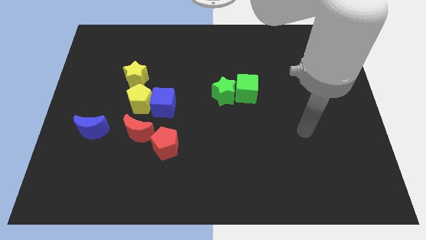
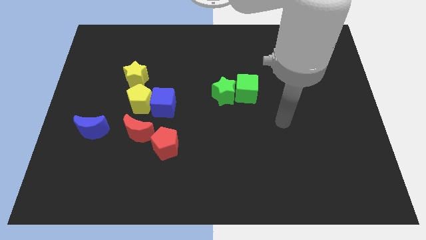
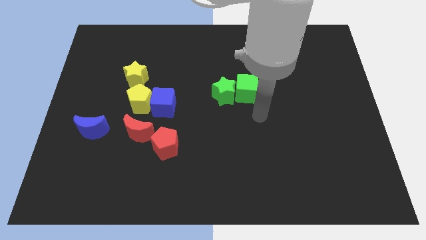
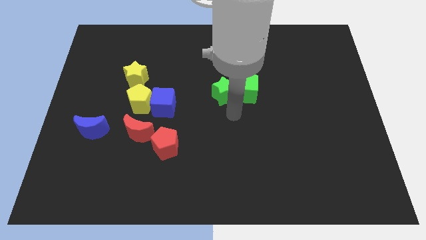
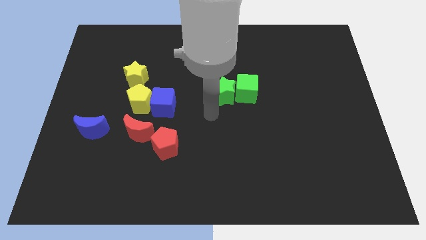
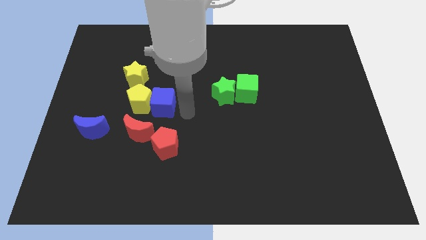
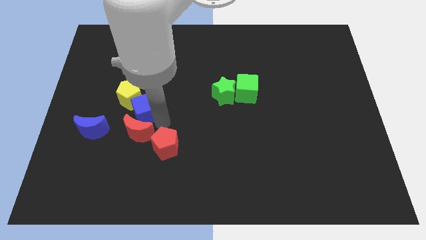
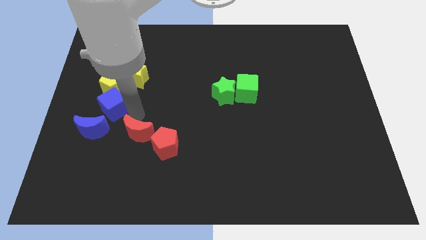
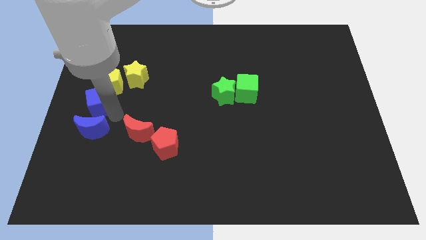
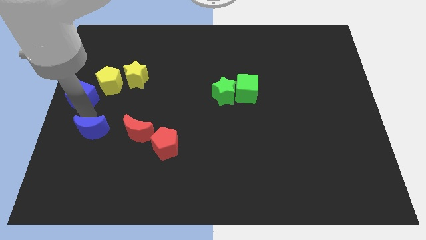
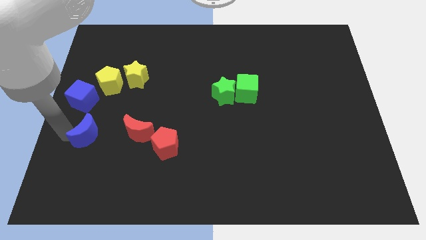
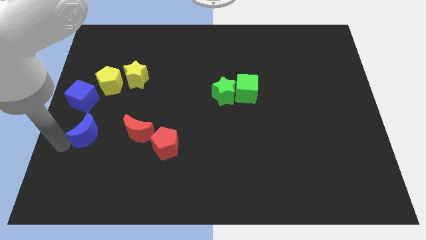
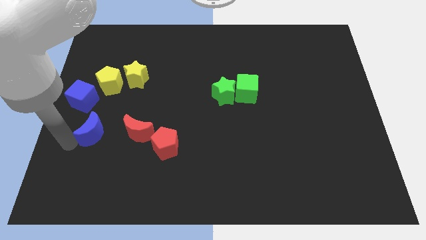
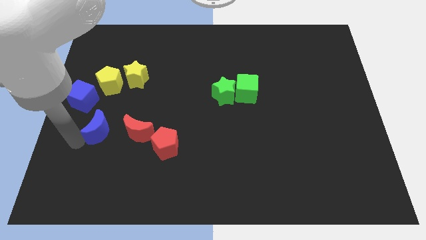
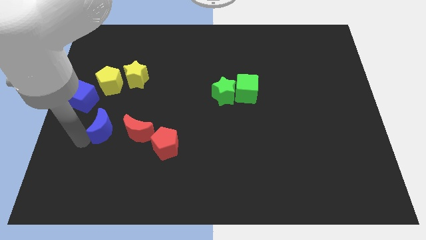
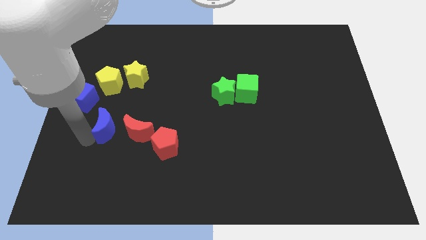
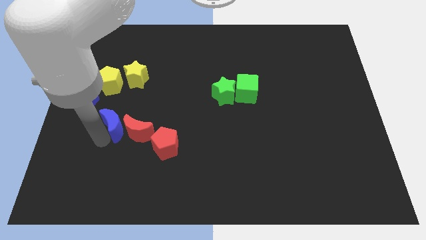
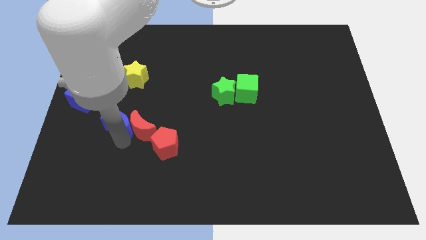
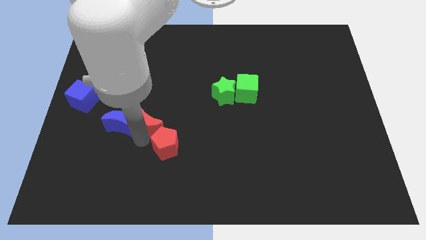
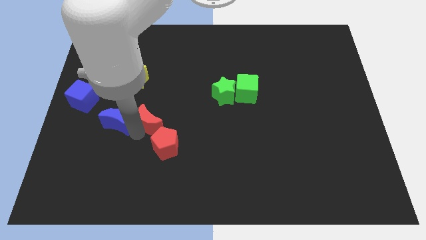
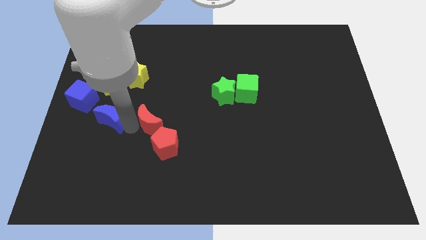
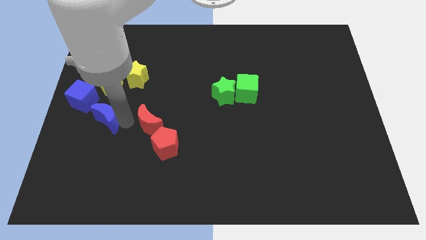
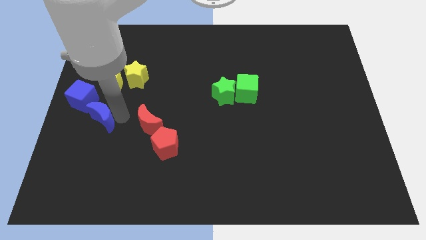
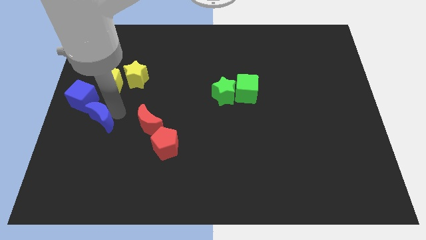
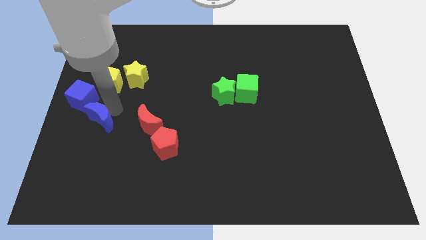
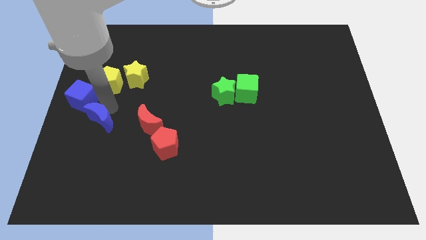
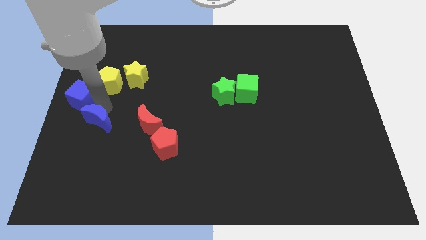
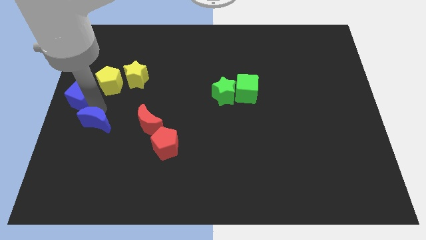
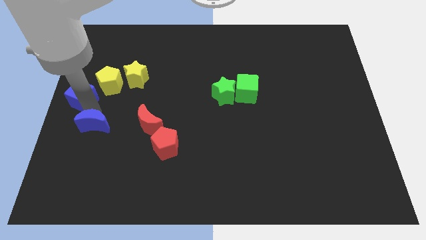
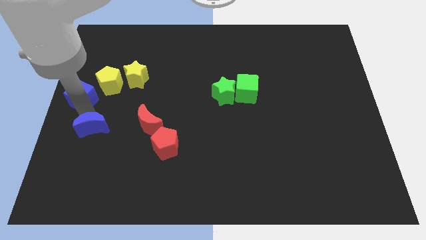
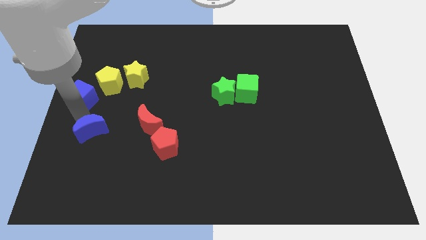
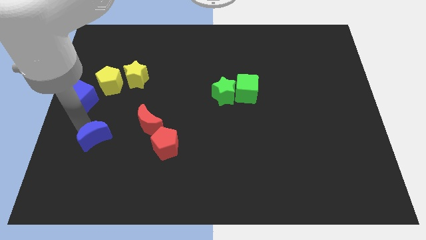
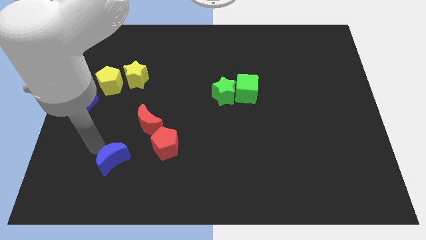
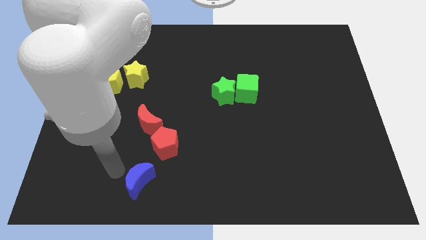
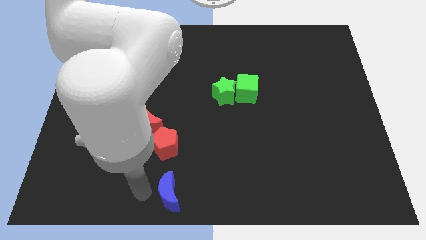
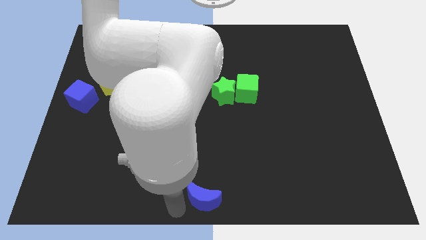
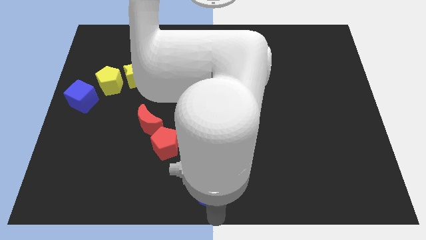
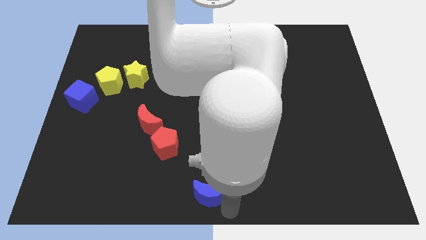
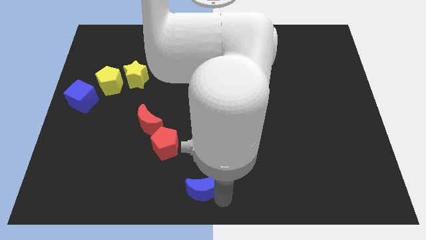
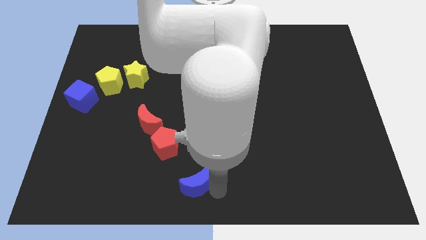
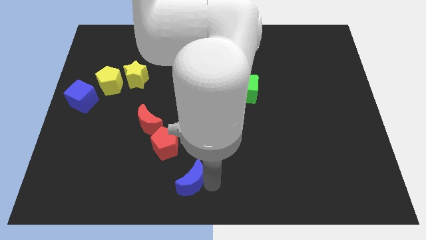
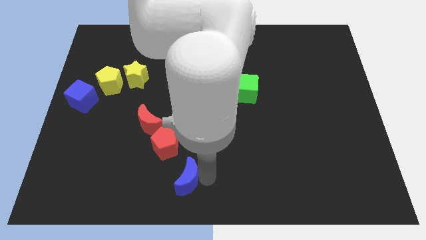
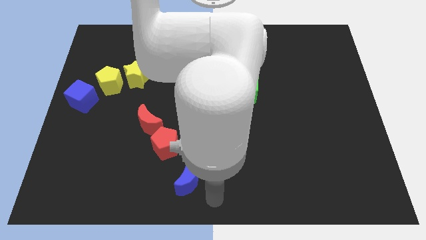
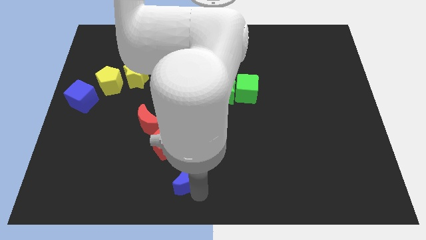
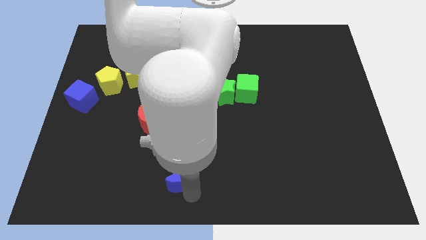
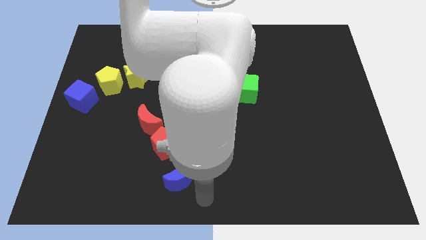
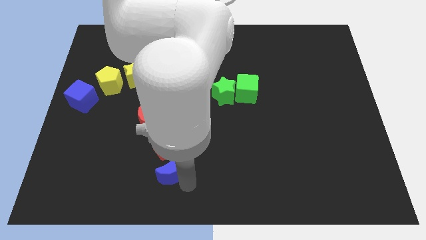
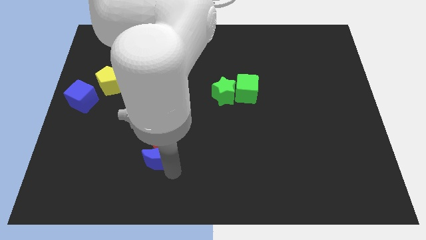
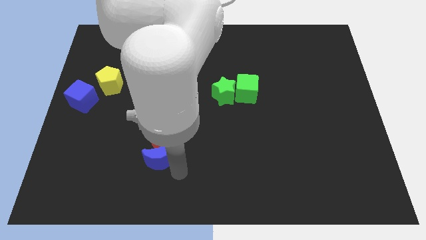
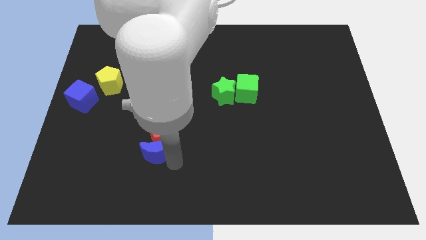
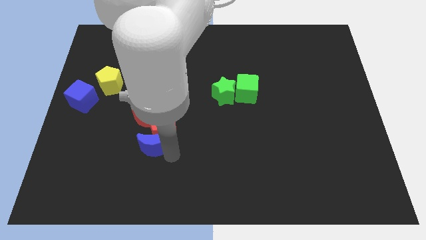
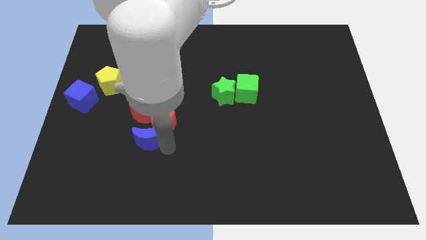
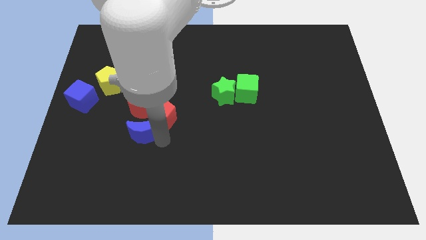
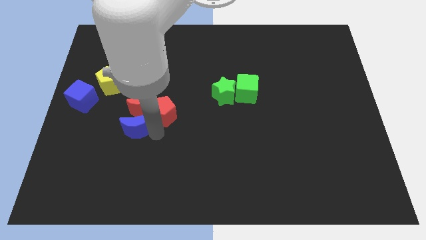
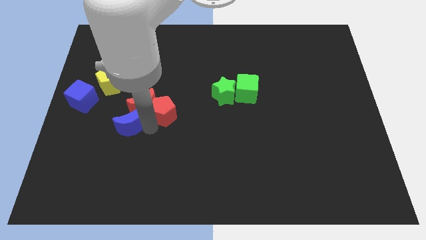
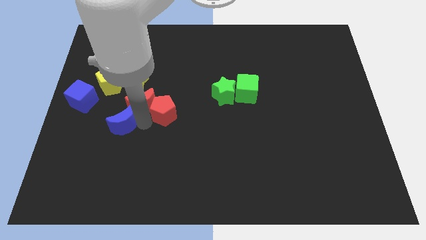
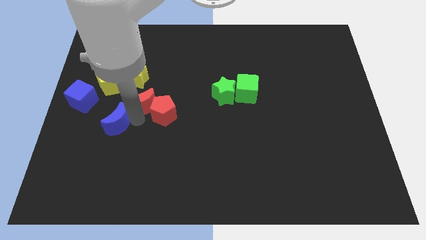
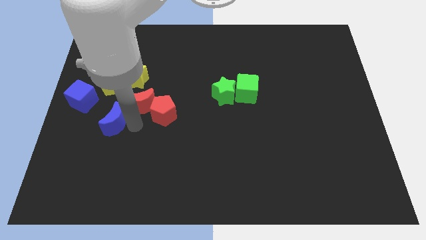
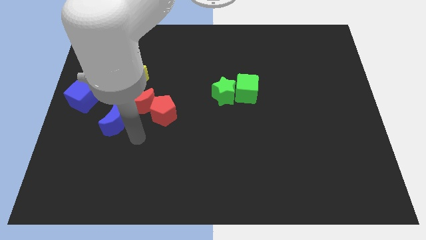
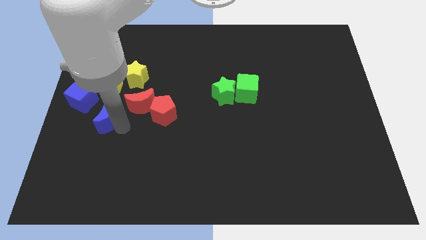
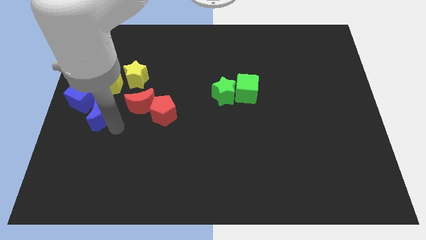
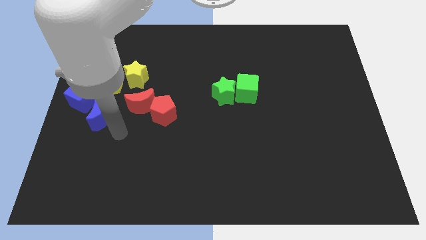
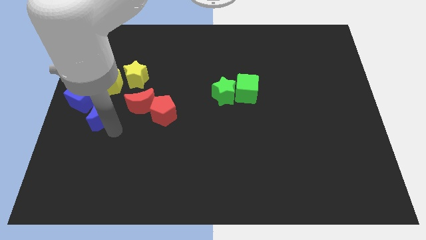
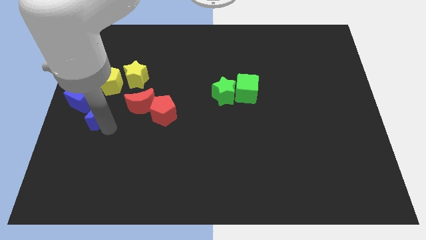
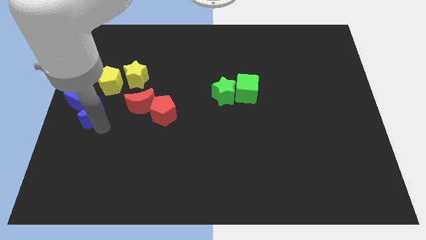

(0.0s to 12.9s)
slide the blue moon towards the blue cube

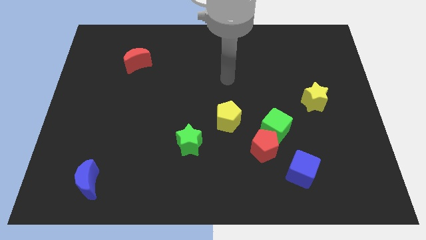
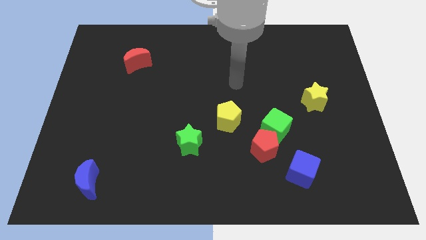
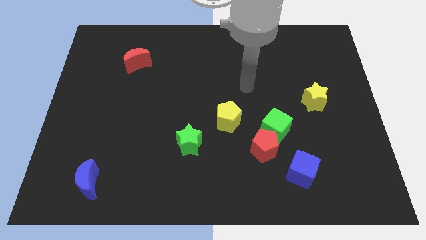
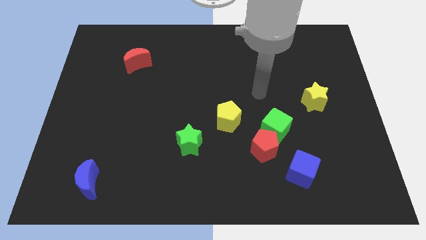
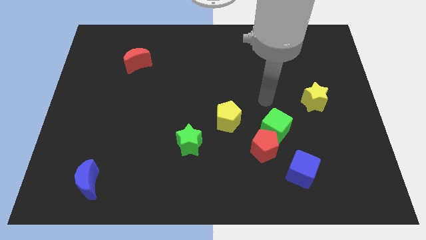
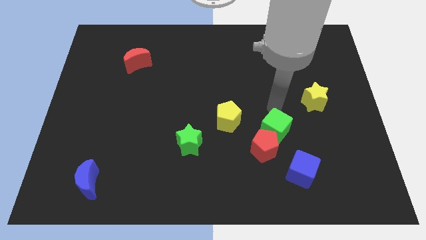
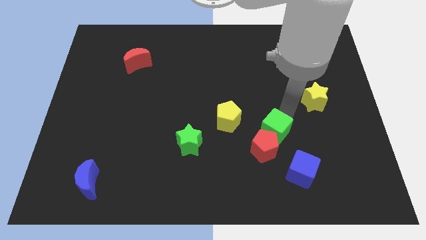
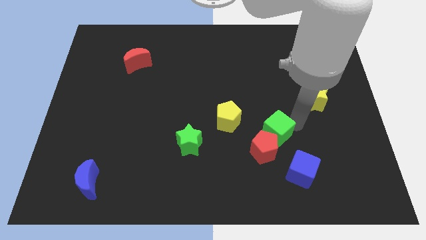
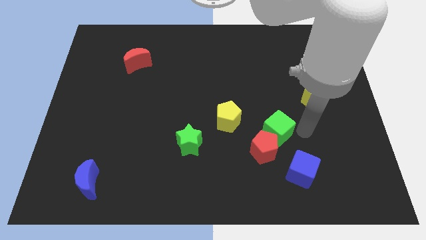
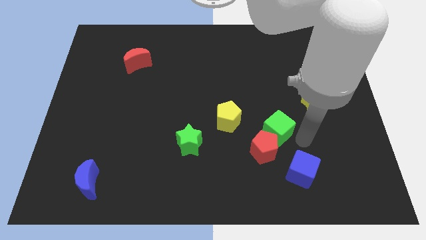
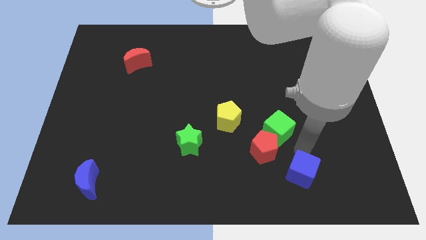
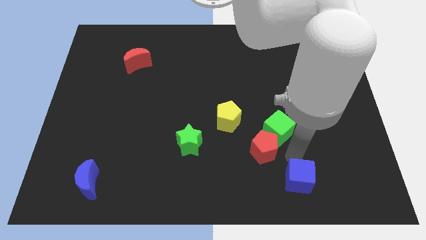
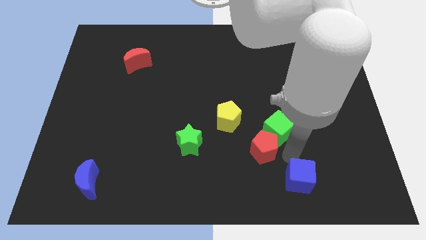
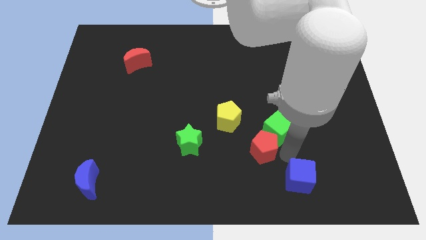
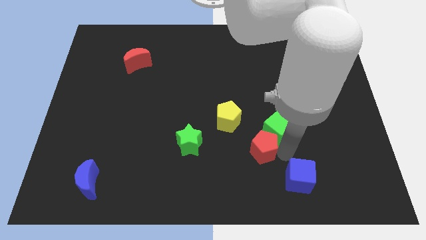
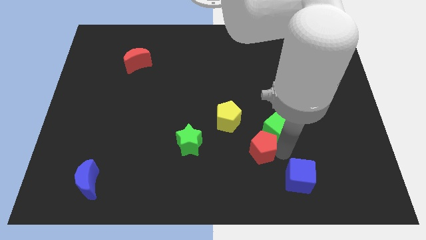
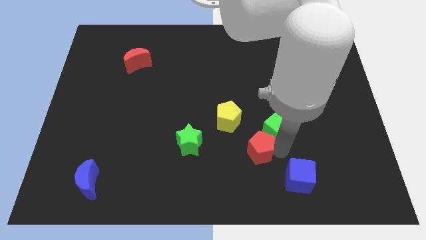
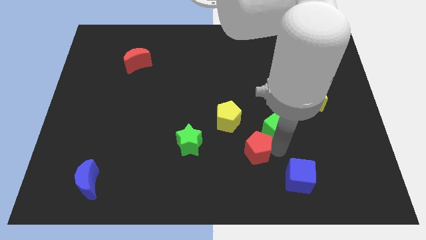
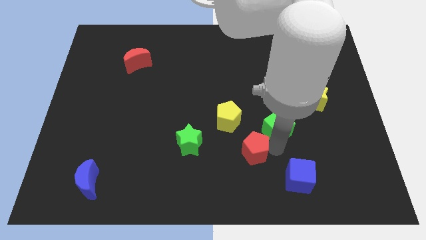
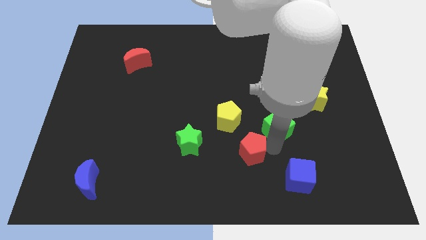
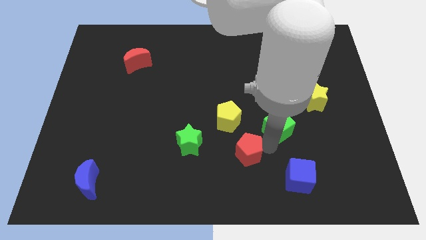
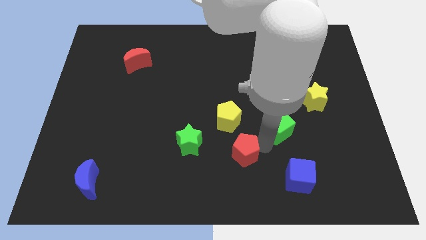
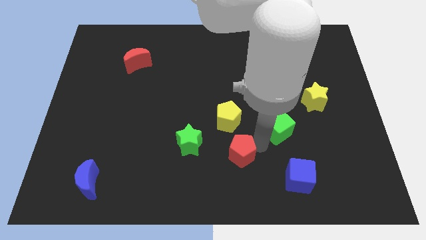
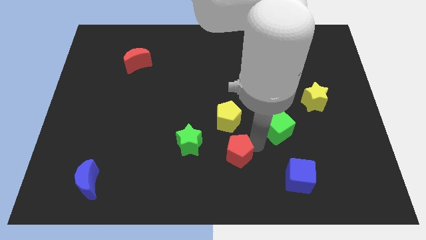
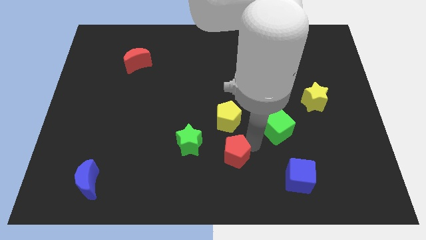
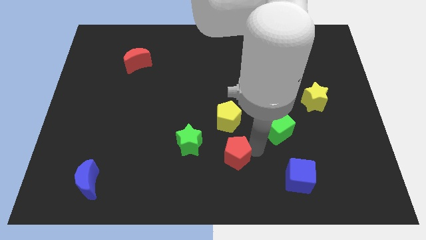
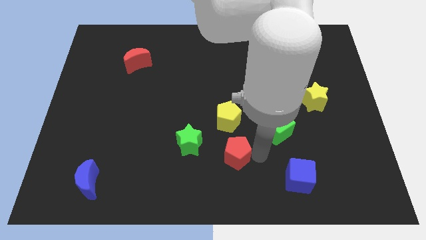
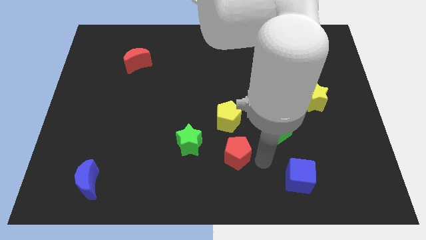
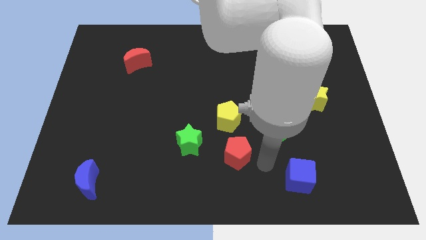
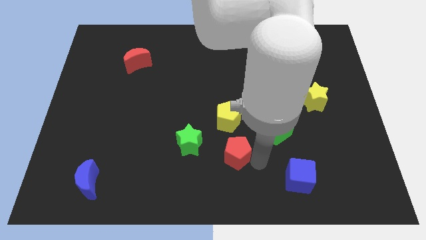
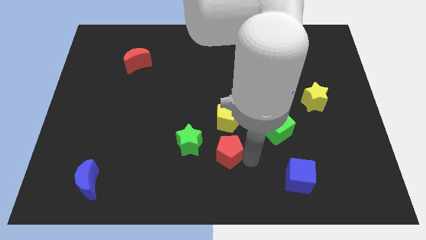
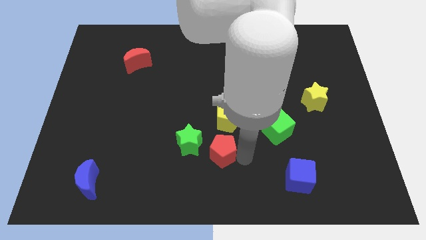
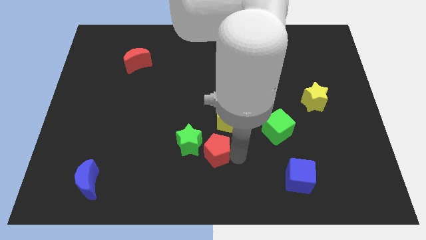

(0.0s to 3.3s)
put the red pentagon next to the green star
